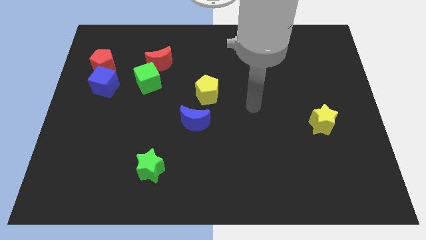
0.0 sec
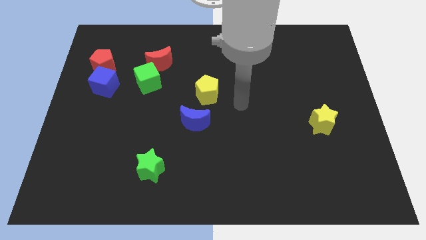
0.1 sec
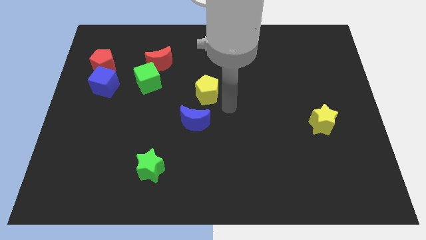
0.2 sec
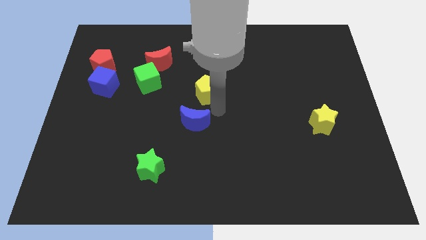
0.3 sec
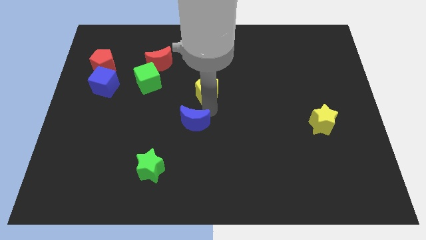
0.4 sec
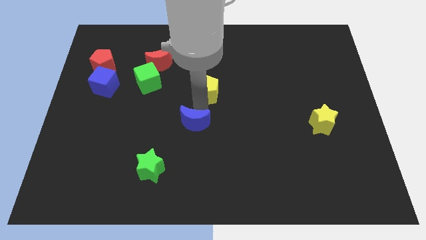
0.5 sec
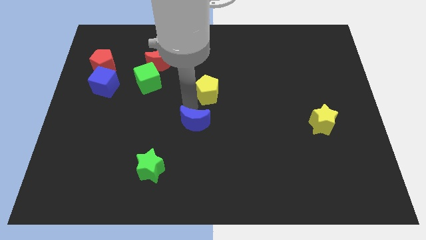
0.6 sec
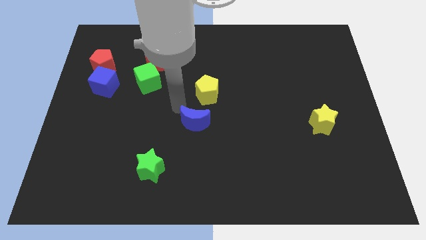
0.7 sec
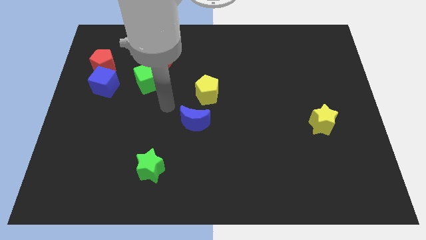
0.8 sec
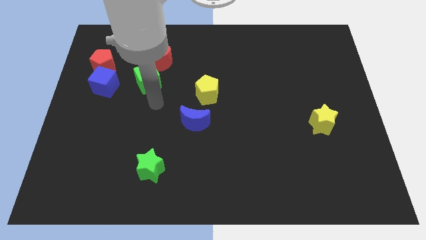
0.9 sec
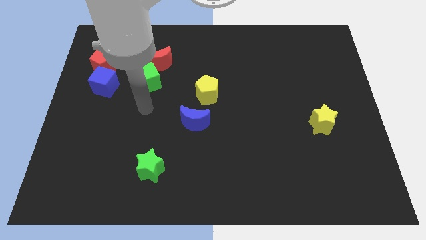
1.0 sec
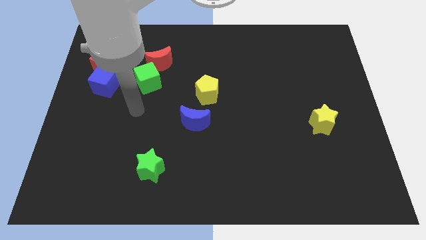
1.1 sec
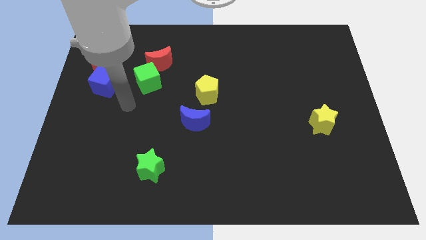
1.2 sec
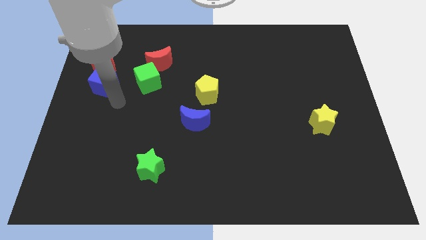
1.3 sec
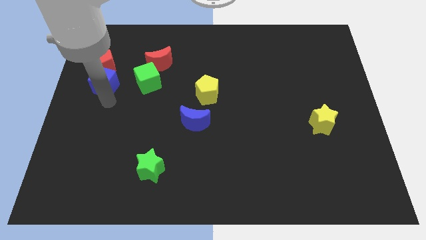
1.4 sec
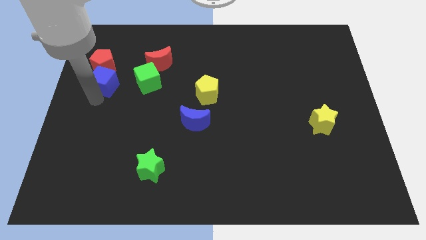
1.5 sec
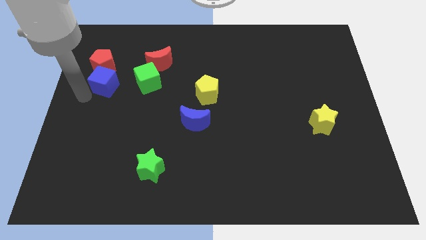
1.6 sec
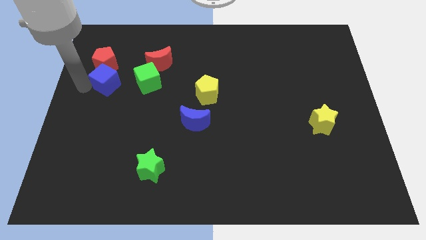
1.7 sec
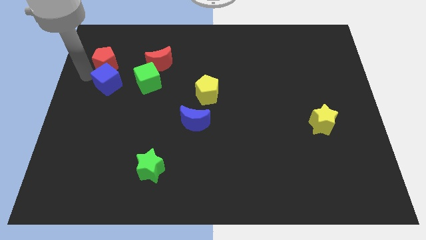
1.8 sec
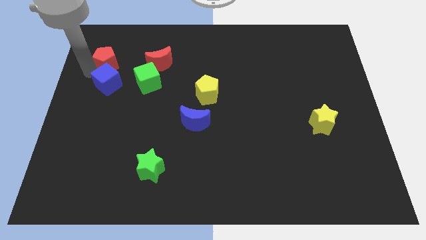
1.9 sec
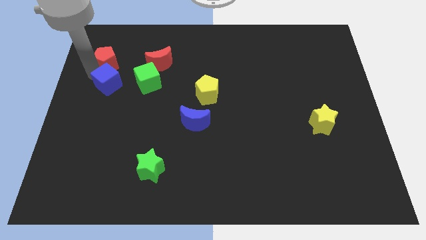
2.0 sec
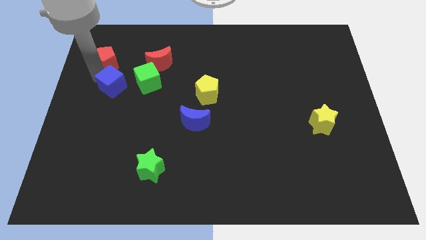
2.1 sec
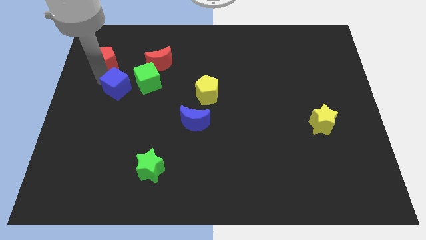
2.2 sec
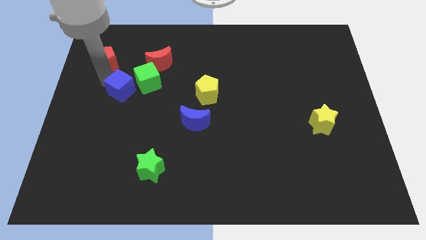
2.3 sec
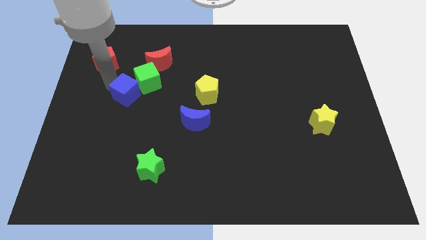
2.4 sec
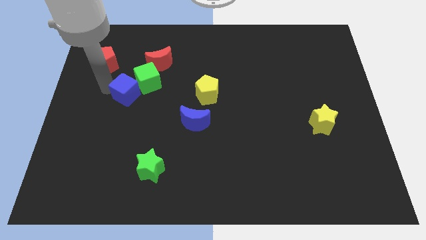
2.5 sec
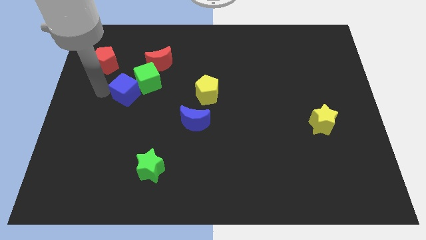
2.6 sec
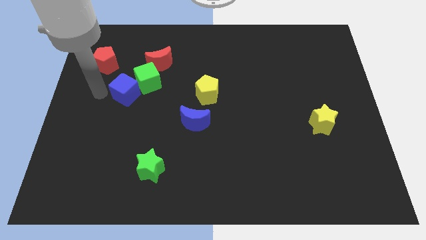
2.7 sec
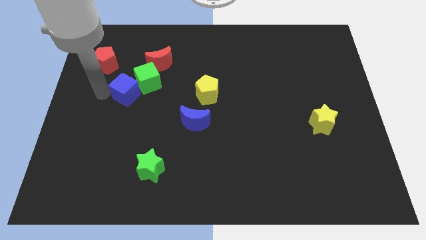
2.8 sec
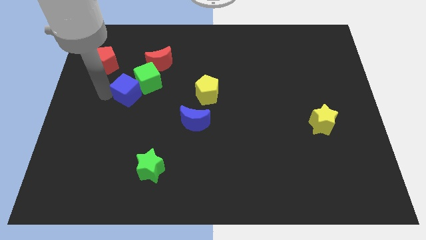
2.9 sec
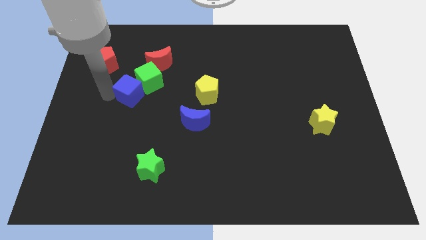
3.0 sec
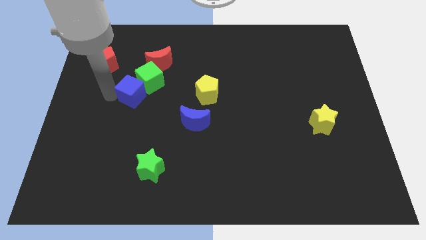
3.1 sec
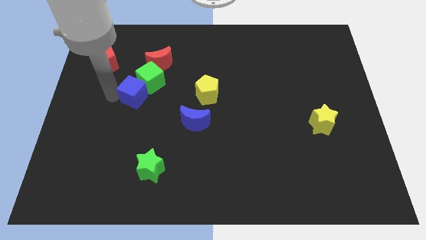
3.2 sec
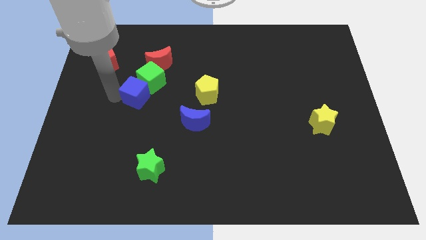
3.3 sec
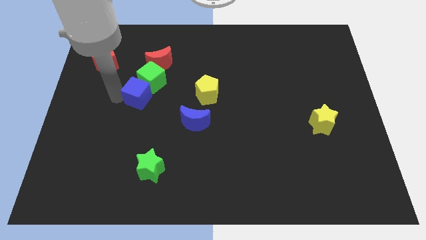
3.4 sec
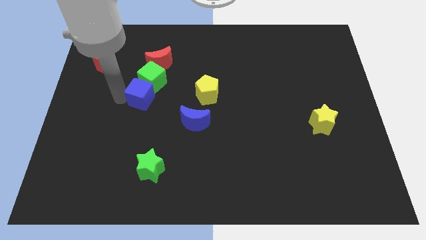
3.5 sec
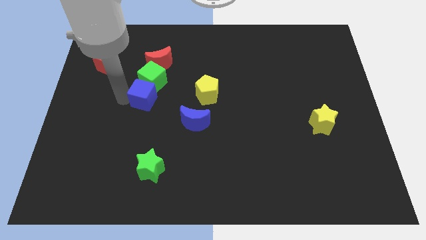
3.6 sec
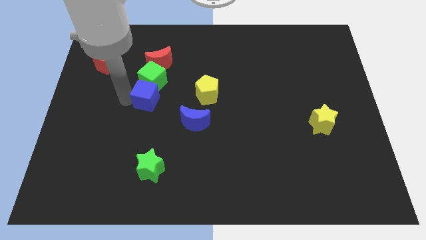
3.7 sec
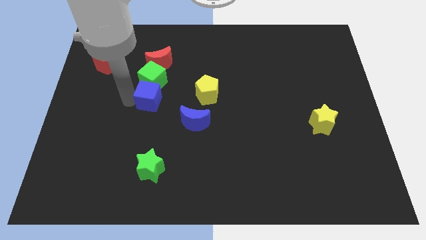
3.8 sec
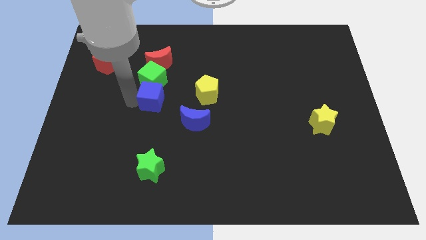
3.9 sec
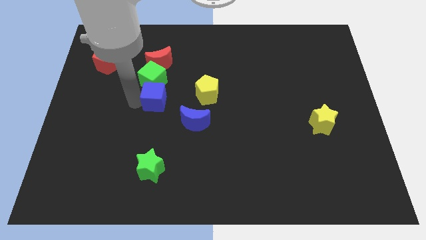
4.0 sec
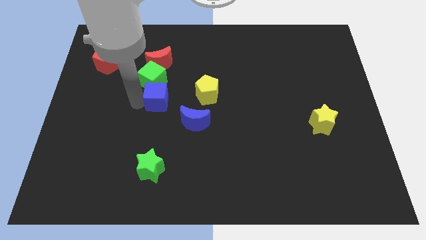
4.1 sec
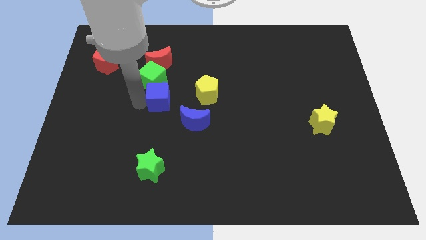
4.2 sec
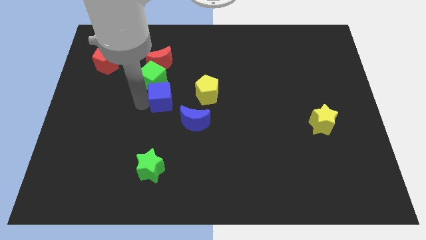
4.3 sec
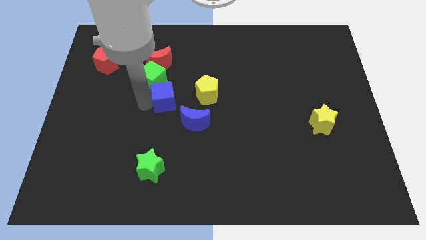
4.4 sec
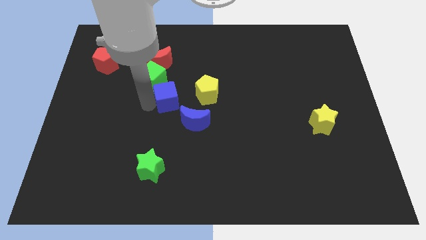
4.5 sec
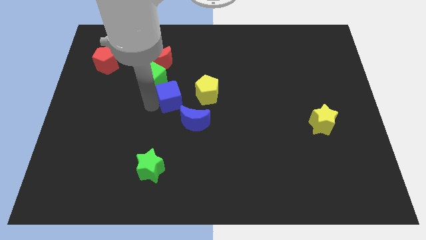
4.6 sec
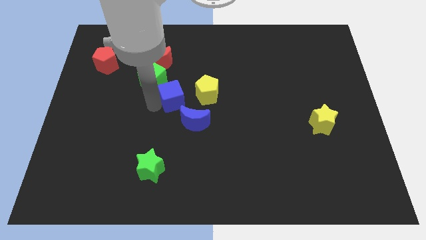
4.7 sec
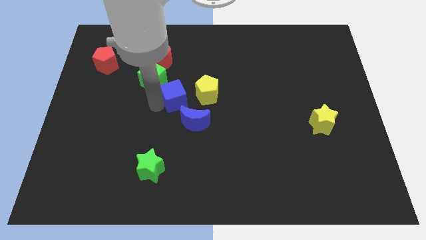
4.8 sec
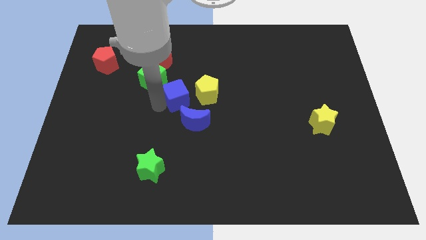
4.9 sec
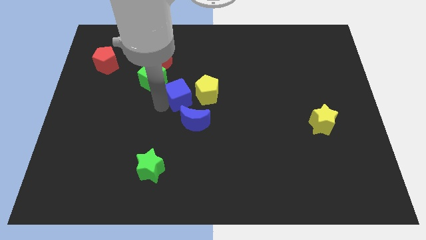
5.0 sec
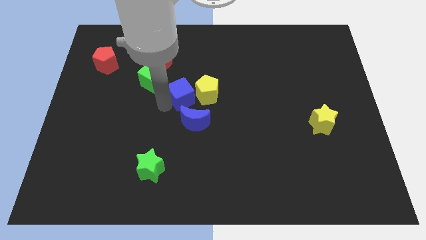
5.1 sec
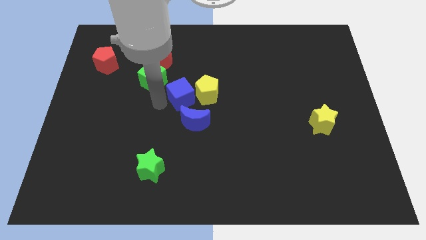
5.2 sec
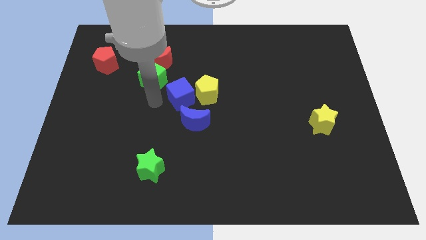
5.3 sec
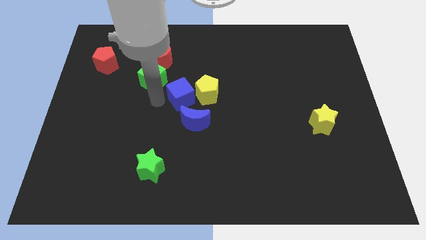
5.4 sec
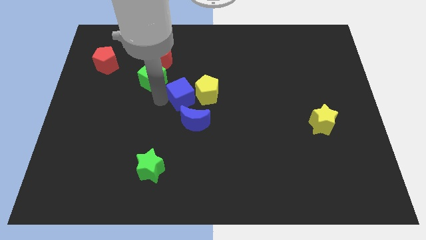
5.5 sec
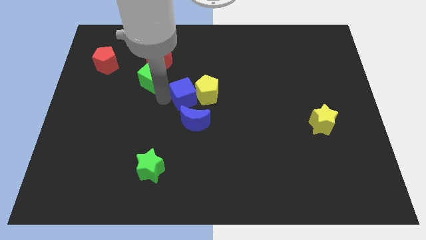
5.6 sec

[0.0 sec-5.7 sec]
put the blue cube to the yellow pentagon

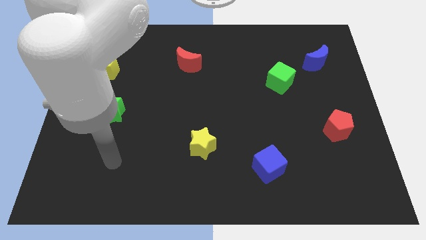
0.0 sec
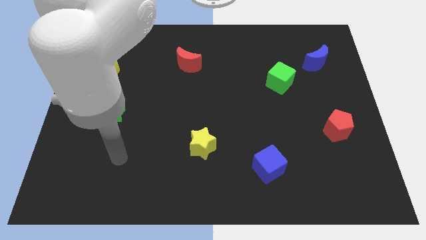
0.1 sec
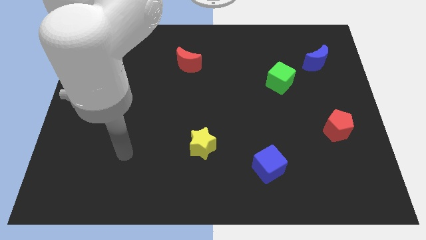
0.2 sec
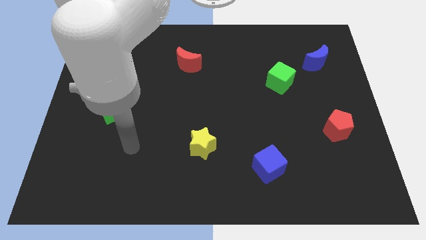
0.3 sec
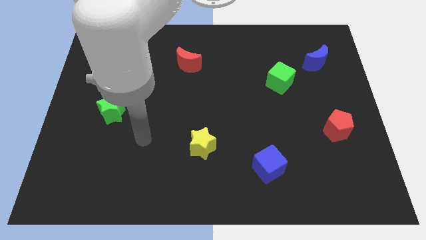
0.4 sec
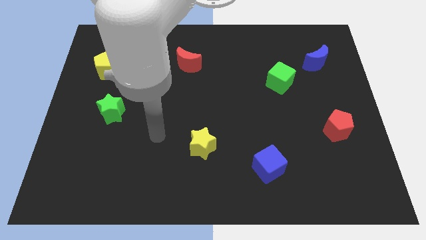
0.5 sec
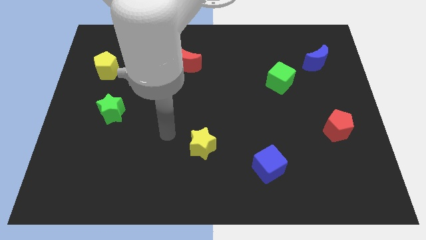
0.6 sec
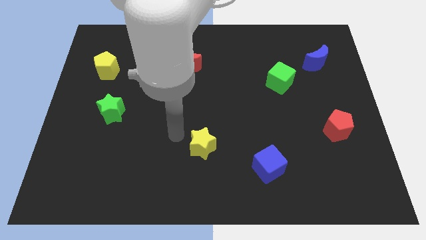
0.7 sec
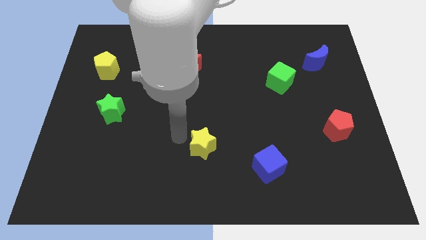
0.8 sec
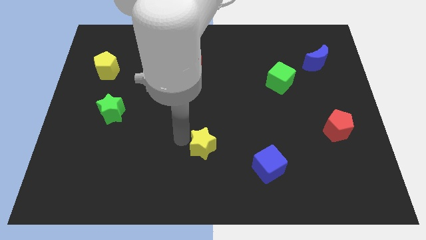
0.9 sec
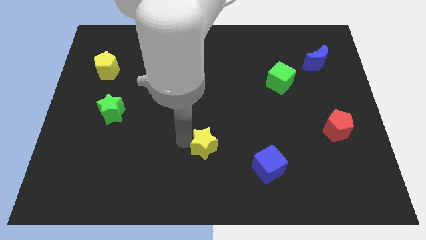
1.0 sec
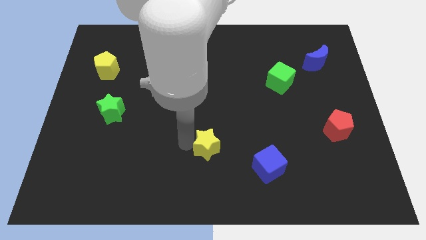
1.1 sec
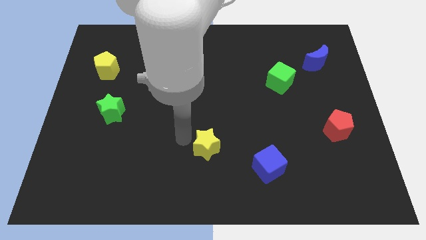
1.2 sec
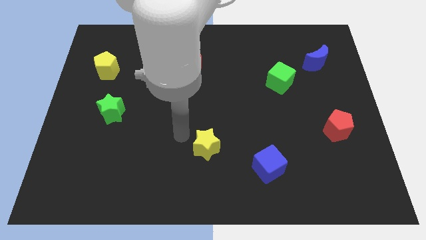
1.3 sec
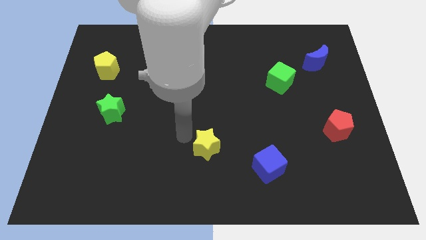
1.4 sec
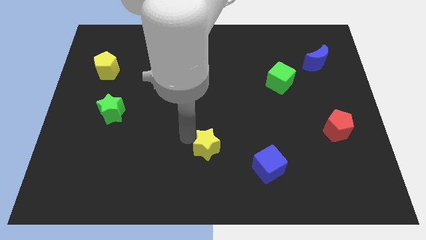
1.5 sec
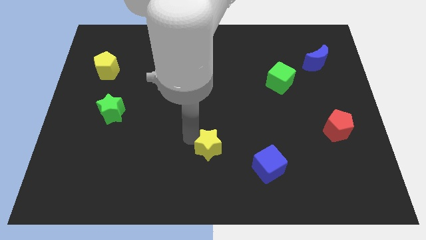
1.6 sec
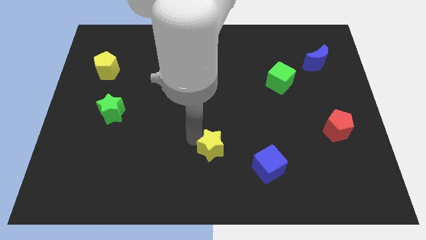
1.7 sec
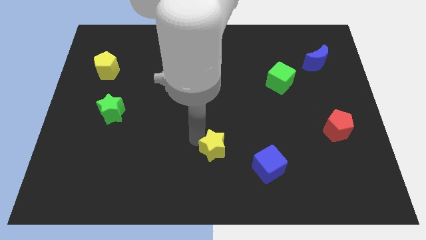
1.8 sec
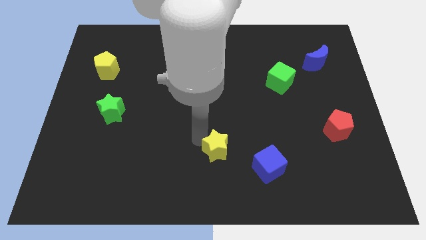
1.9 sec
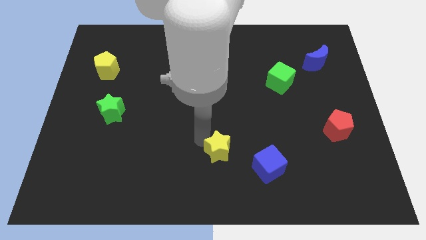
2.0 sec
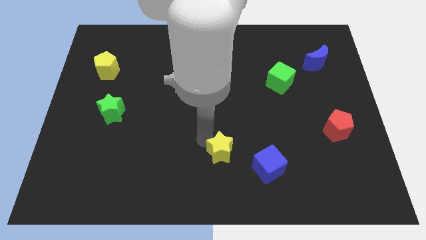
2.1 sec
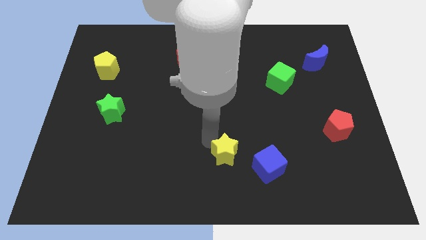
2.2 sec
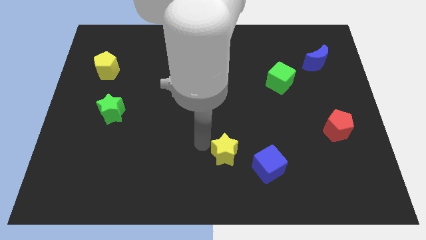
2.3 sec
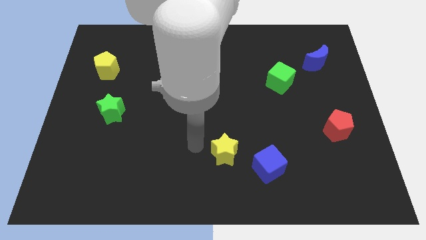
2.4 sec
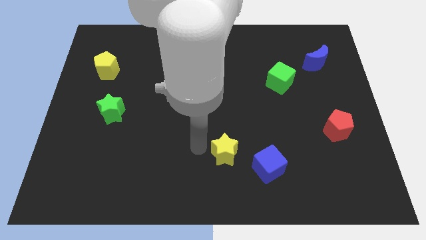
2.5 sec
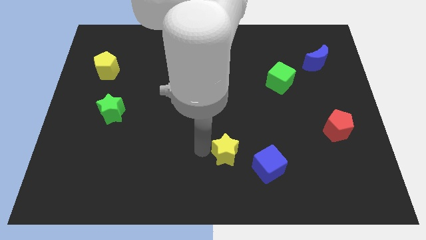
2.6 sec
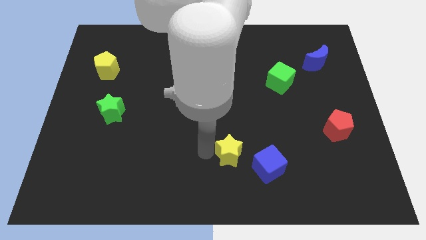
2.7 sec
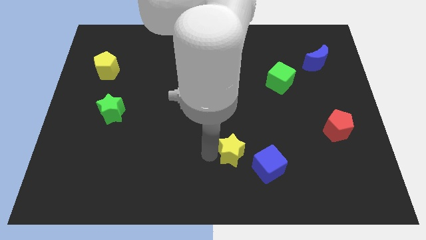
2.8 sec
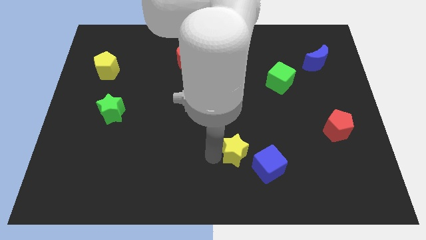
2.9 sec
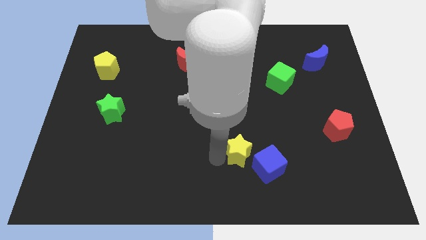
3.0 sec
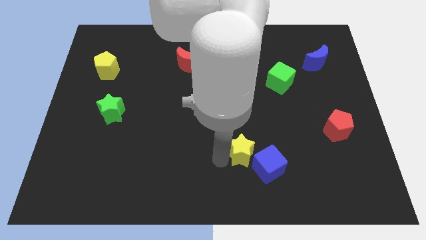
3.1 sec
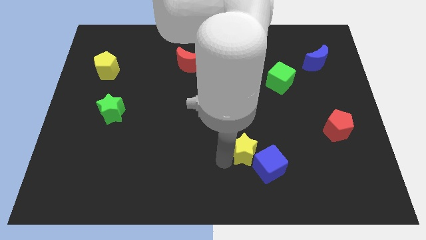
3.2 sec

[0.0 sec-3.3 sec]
put the yellow star next to the blue cube
